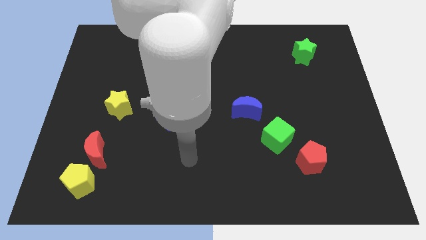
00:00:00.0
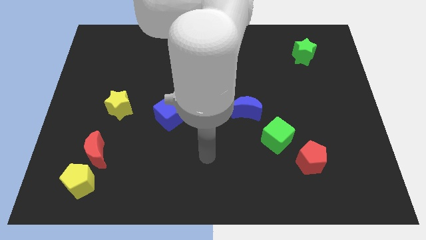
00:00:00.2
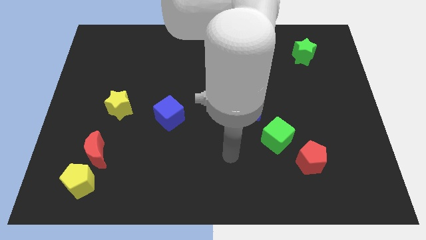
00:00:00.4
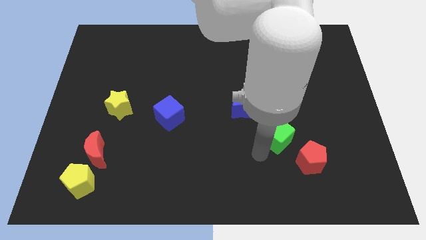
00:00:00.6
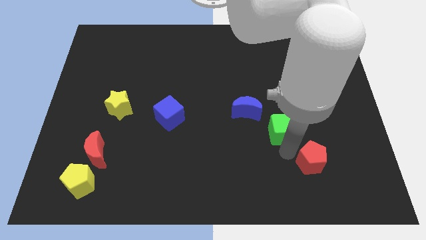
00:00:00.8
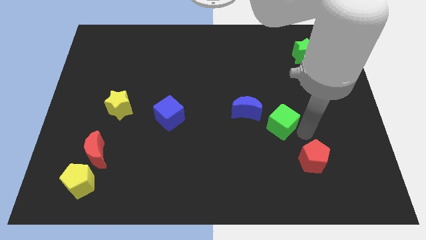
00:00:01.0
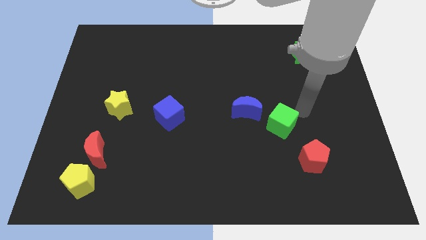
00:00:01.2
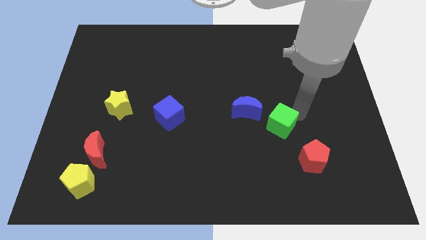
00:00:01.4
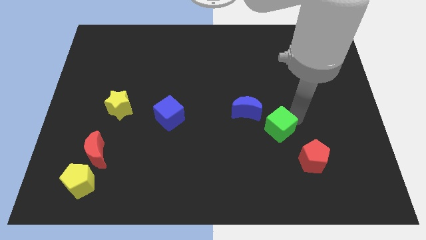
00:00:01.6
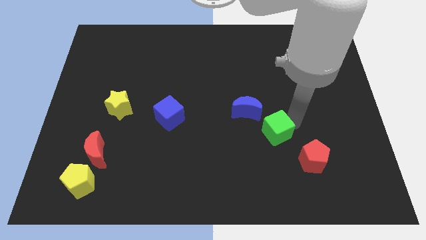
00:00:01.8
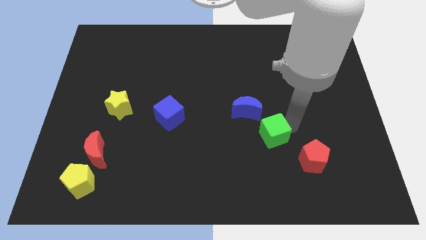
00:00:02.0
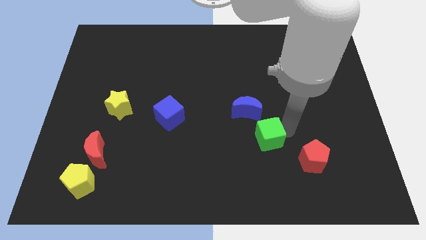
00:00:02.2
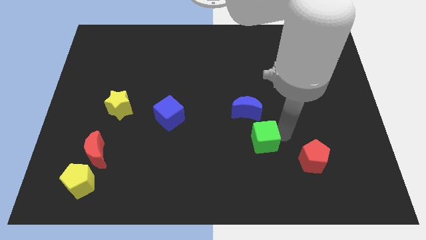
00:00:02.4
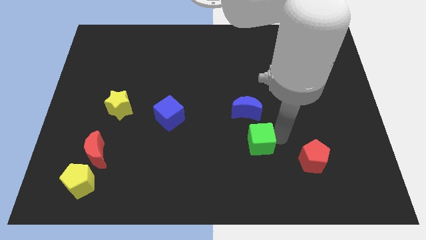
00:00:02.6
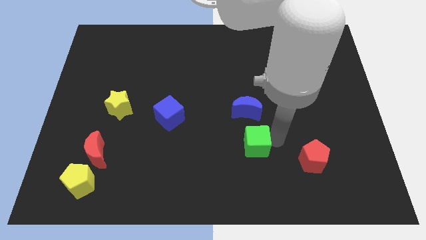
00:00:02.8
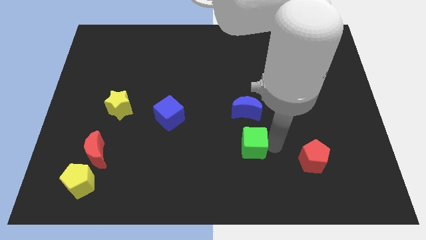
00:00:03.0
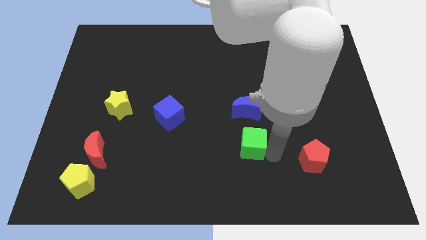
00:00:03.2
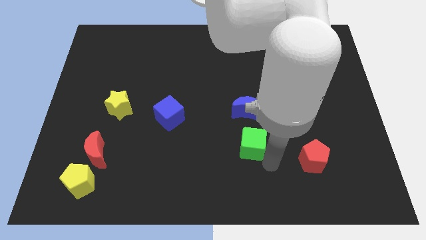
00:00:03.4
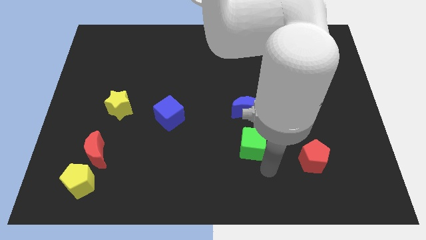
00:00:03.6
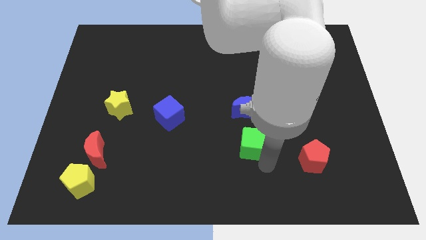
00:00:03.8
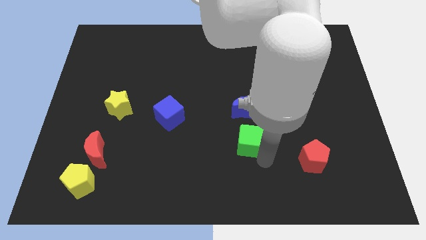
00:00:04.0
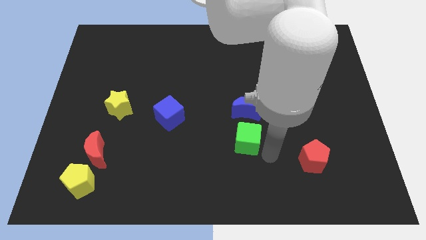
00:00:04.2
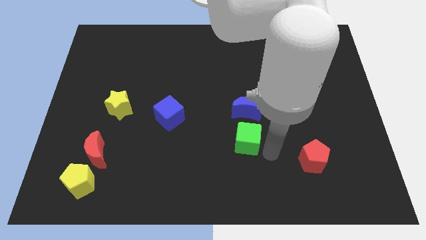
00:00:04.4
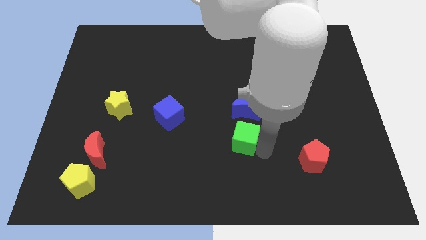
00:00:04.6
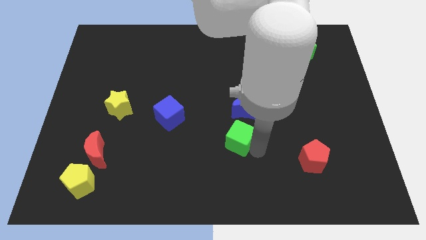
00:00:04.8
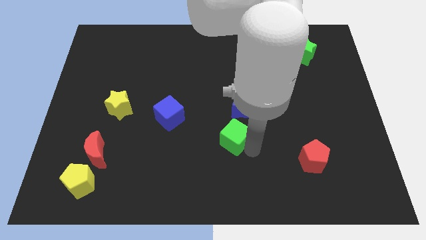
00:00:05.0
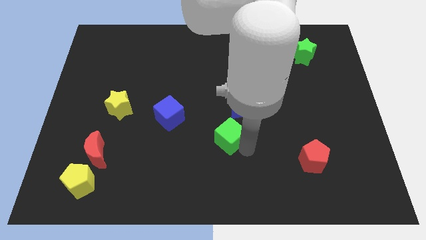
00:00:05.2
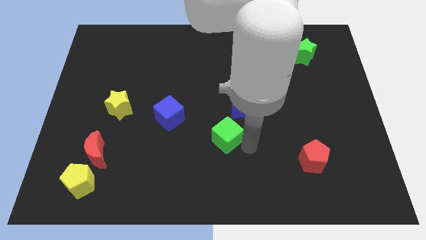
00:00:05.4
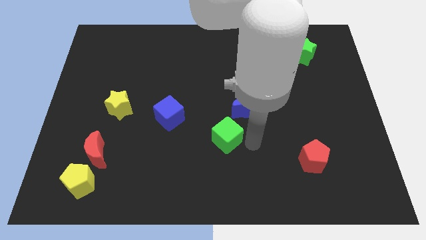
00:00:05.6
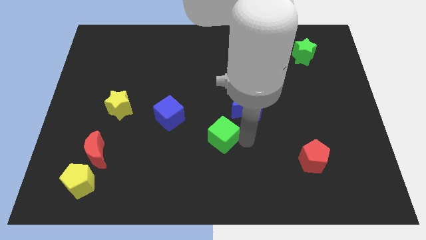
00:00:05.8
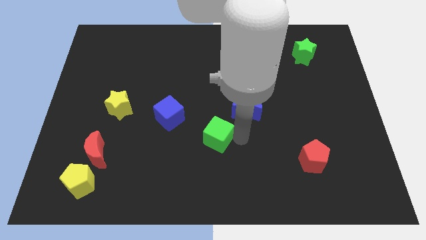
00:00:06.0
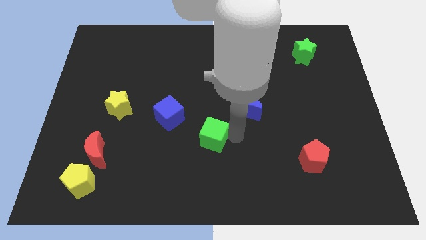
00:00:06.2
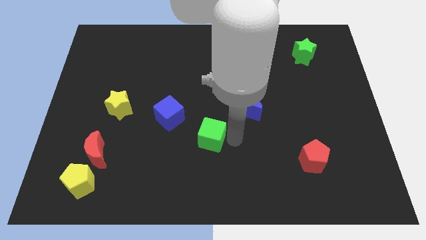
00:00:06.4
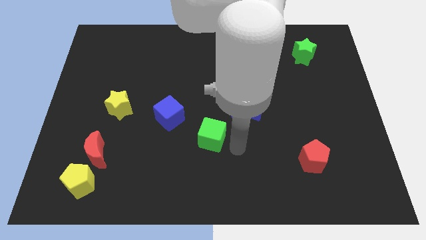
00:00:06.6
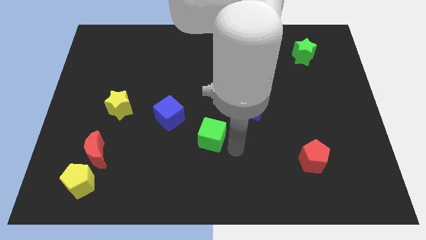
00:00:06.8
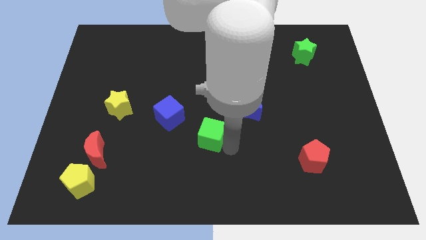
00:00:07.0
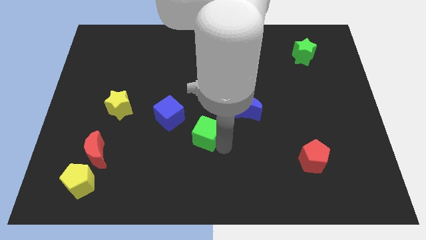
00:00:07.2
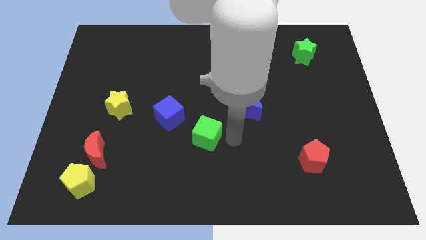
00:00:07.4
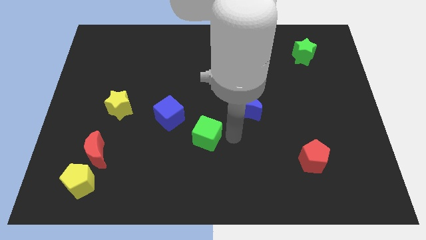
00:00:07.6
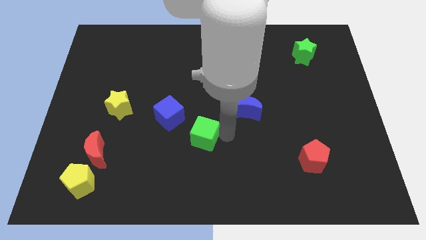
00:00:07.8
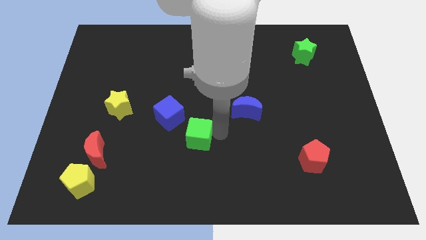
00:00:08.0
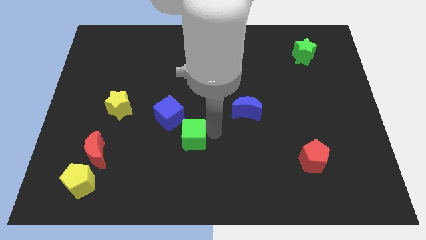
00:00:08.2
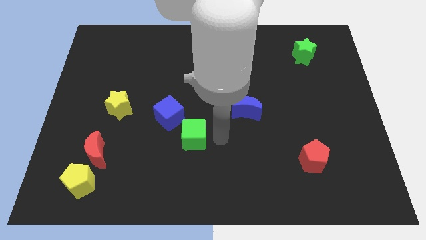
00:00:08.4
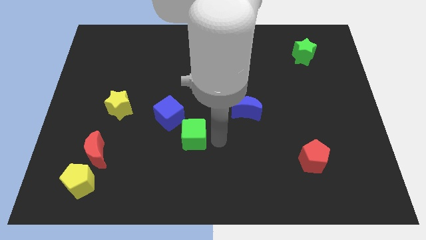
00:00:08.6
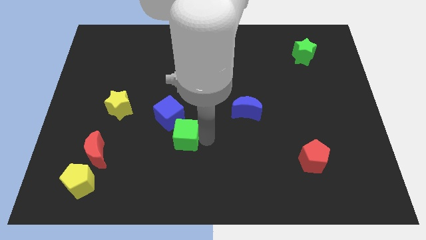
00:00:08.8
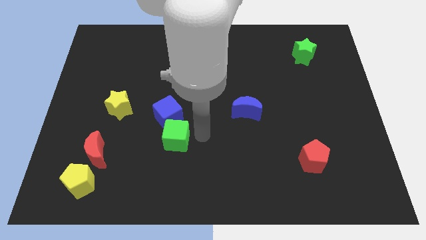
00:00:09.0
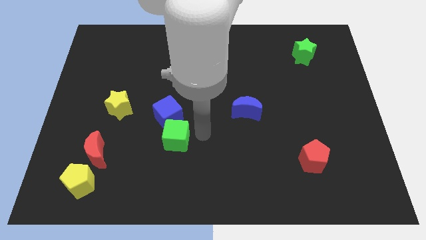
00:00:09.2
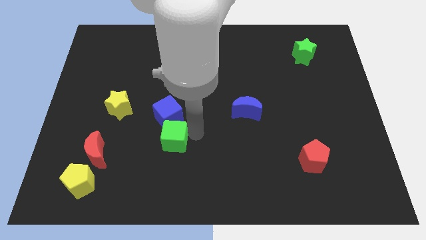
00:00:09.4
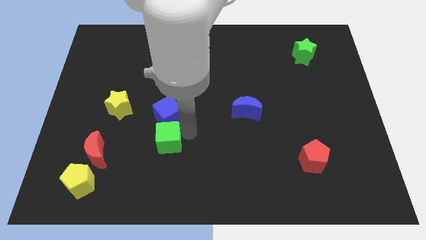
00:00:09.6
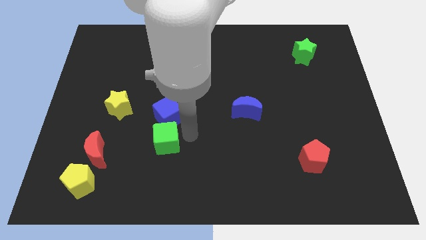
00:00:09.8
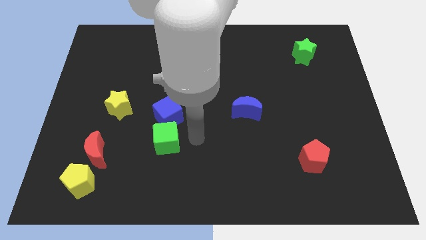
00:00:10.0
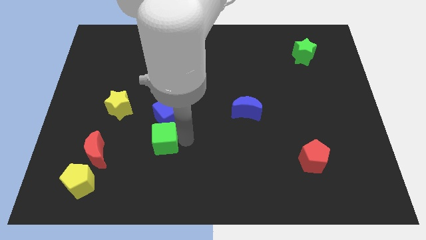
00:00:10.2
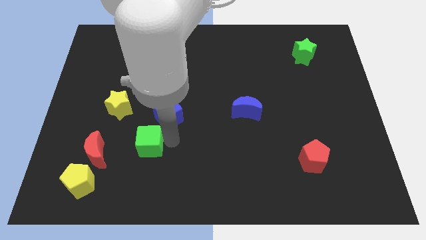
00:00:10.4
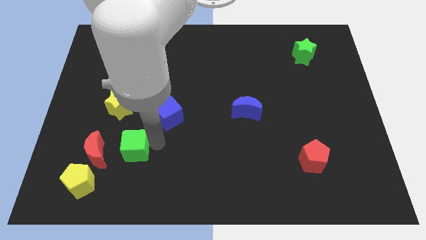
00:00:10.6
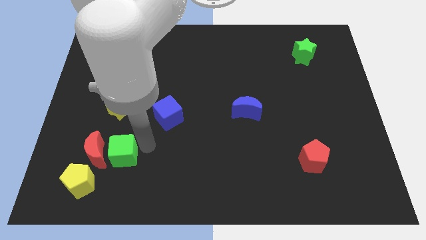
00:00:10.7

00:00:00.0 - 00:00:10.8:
put the green cube close to the red moon

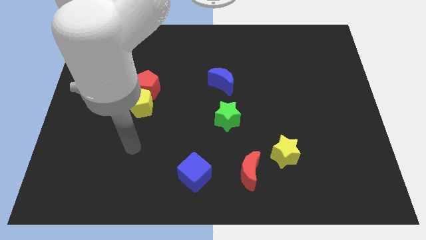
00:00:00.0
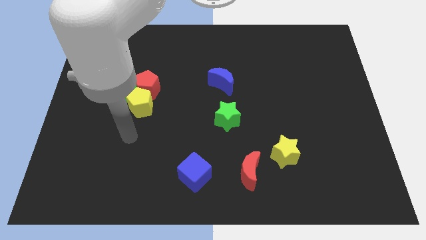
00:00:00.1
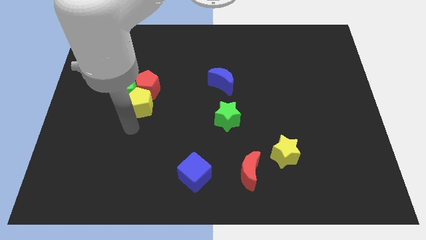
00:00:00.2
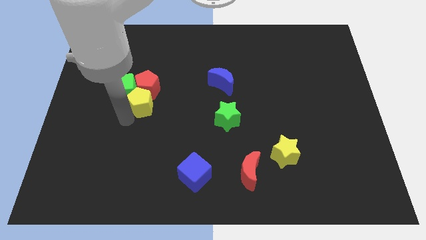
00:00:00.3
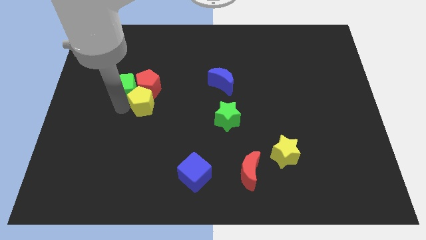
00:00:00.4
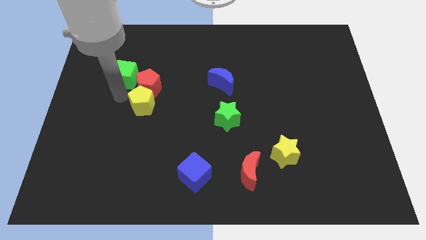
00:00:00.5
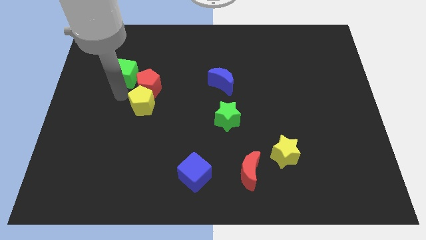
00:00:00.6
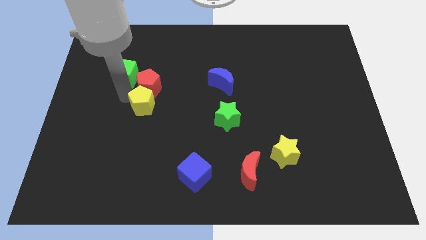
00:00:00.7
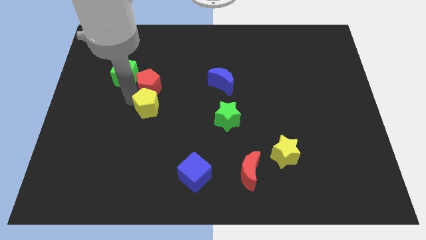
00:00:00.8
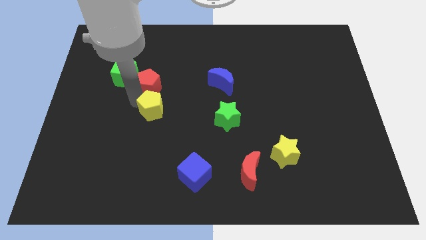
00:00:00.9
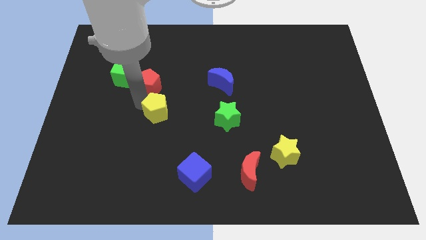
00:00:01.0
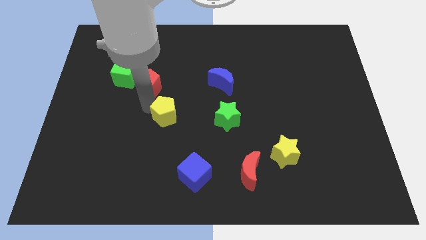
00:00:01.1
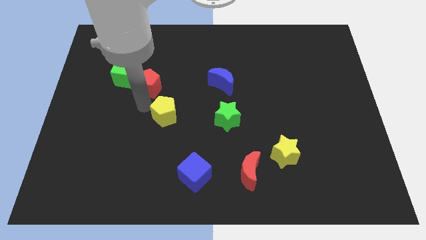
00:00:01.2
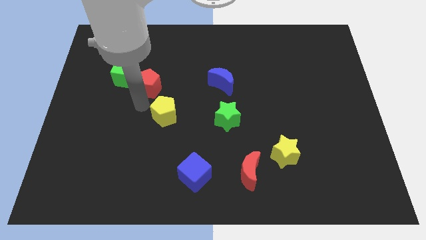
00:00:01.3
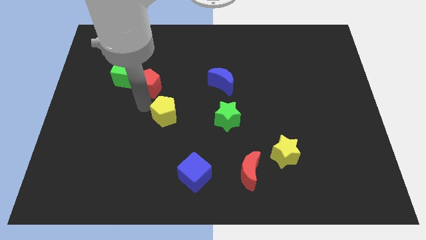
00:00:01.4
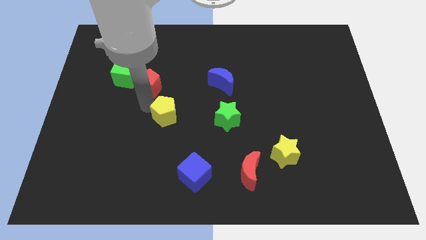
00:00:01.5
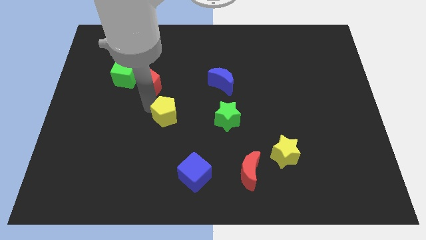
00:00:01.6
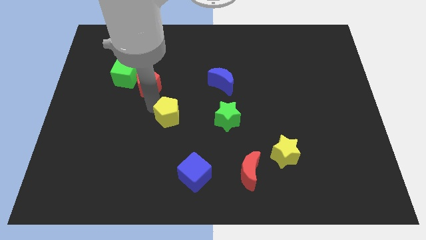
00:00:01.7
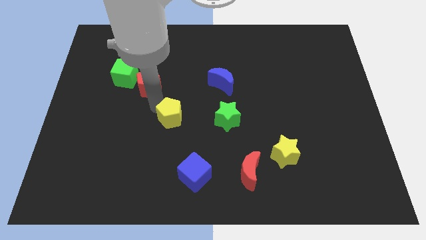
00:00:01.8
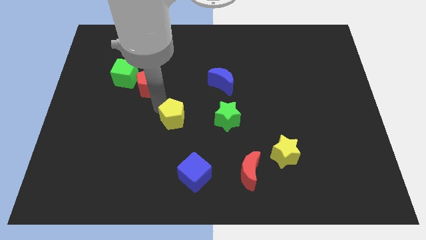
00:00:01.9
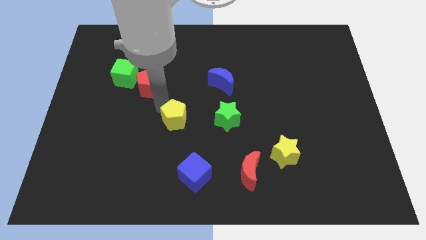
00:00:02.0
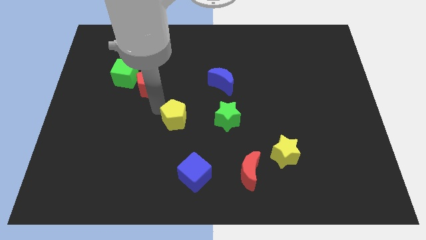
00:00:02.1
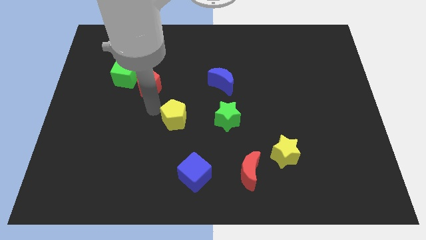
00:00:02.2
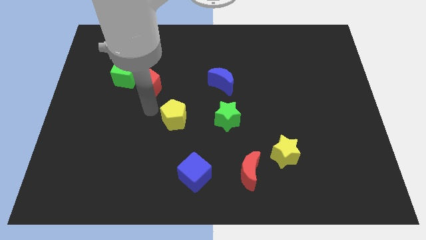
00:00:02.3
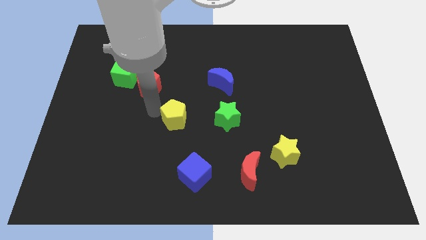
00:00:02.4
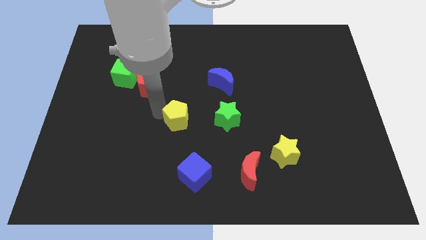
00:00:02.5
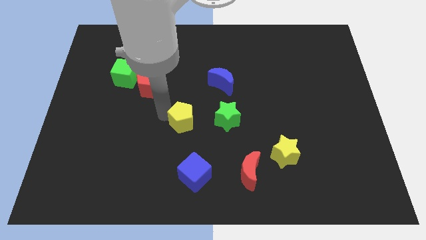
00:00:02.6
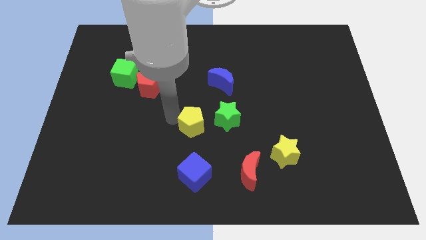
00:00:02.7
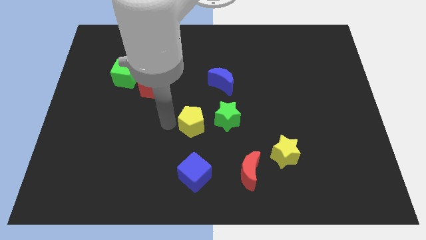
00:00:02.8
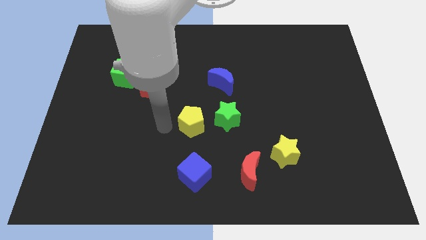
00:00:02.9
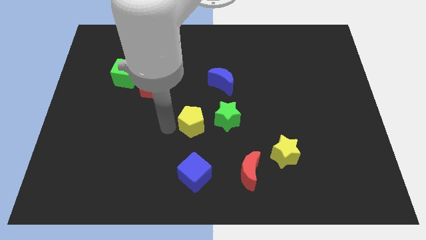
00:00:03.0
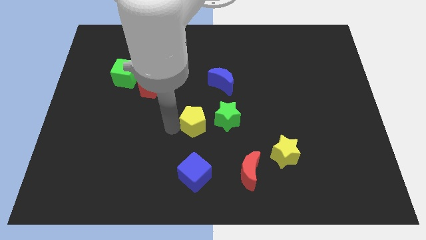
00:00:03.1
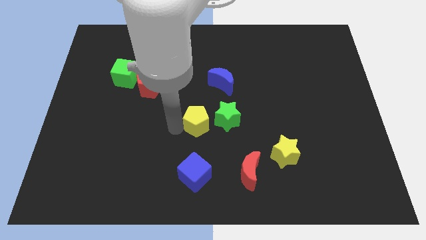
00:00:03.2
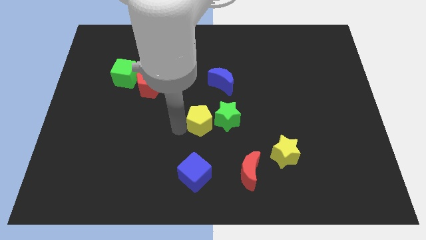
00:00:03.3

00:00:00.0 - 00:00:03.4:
slide the yellow pentagon to the green star
